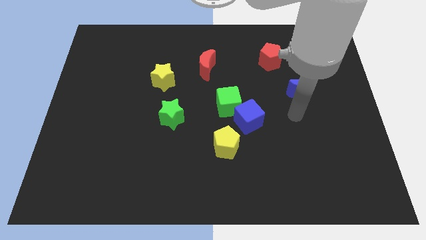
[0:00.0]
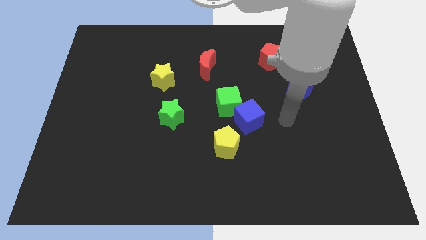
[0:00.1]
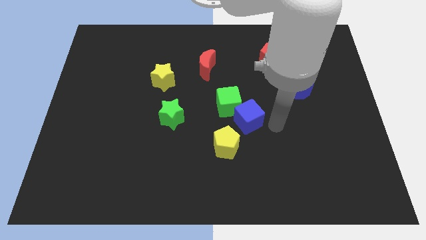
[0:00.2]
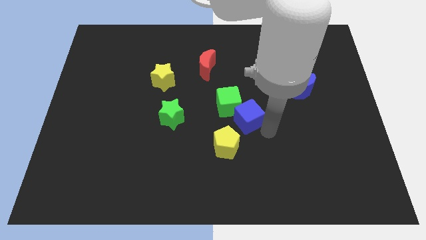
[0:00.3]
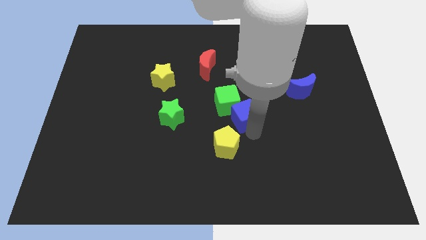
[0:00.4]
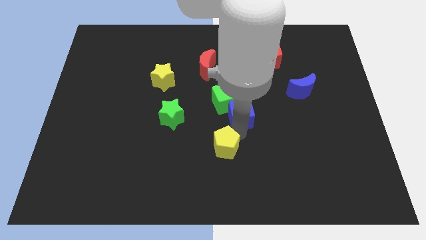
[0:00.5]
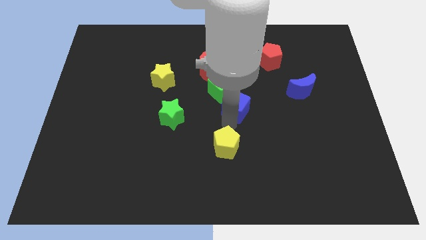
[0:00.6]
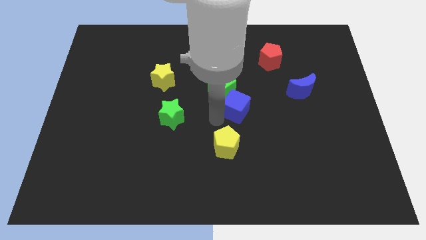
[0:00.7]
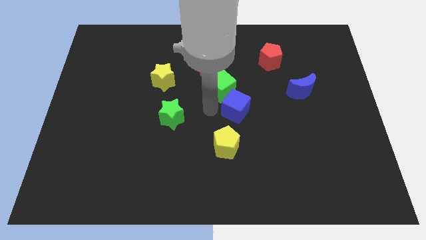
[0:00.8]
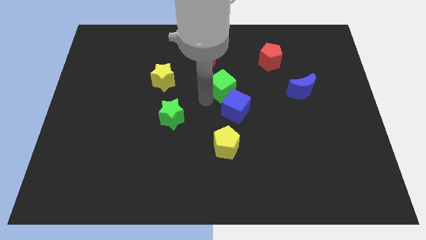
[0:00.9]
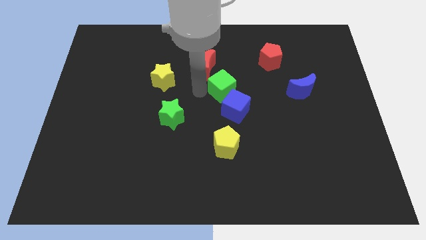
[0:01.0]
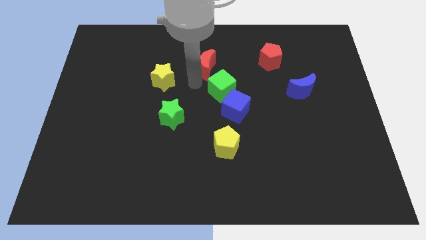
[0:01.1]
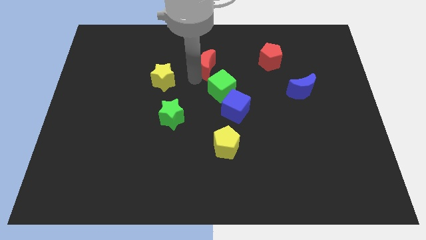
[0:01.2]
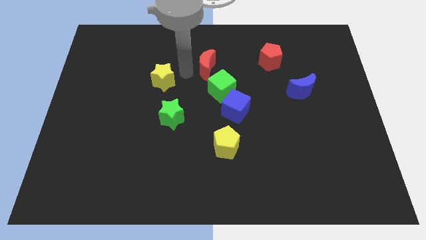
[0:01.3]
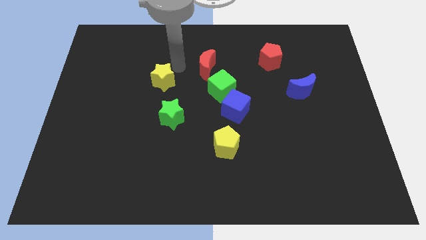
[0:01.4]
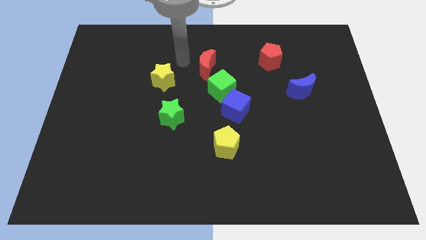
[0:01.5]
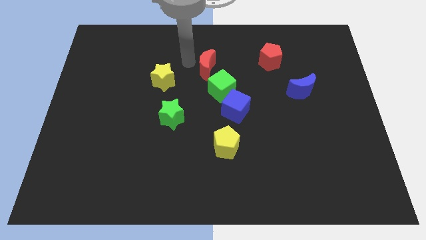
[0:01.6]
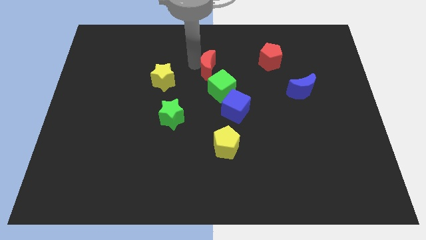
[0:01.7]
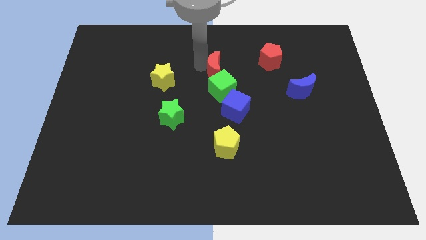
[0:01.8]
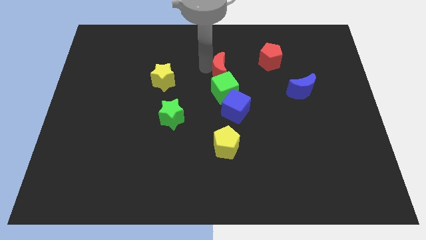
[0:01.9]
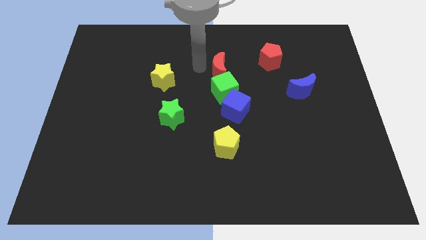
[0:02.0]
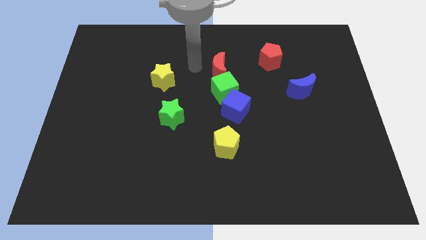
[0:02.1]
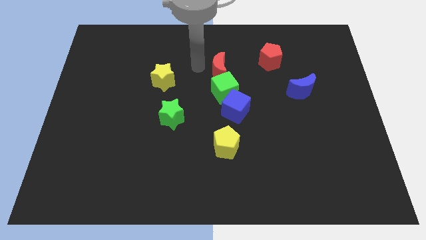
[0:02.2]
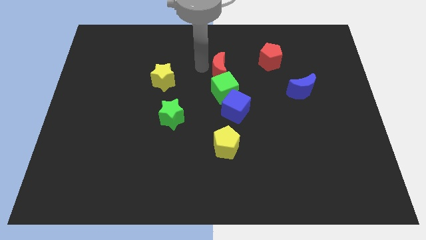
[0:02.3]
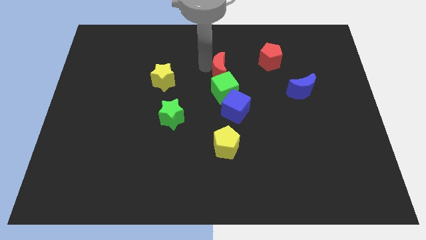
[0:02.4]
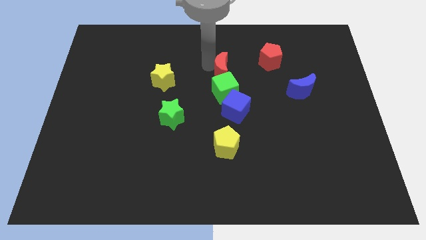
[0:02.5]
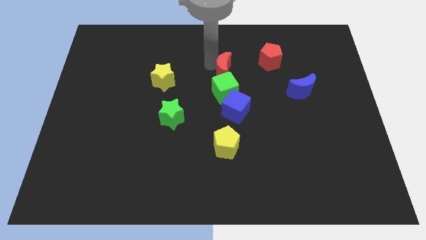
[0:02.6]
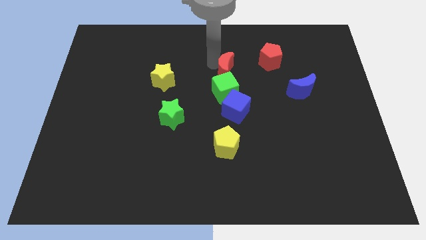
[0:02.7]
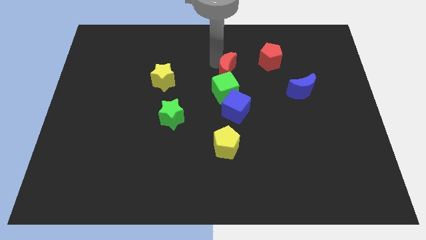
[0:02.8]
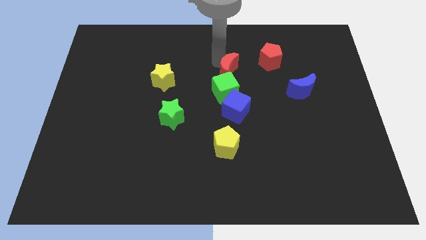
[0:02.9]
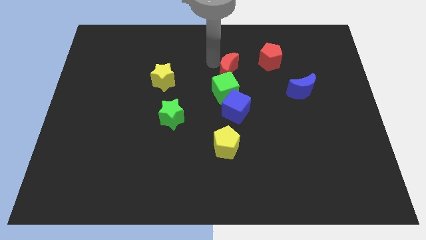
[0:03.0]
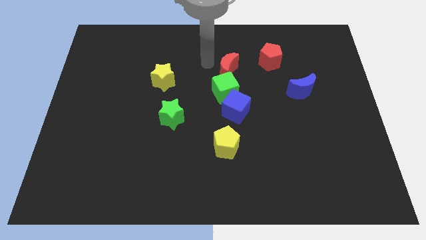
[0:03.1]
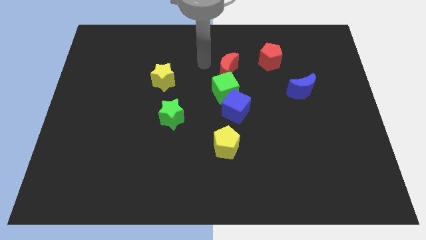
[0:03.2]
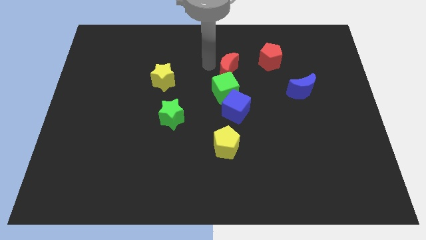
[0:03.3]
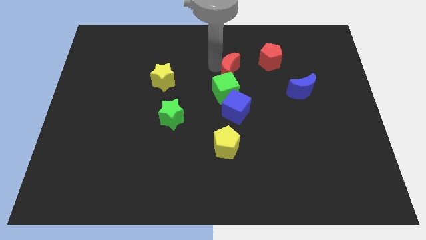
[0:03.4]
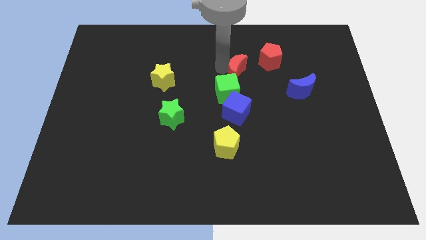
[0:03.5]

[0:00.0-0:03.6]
slightly slide the red moon to the right

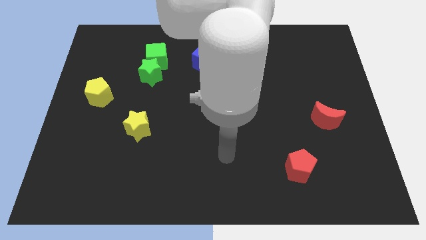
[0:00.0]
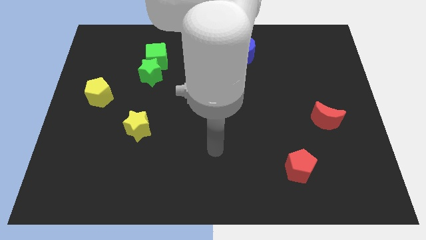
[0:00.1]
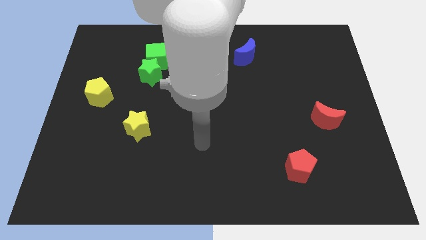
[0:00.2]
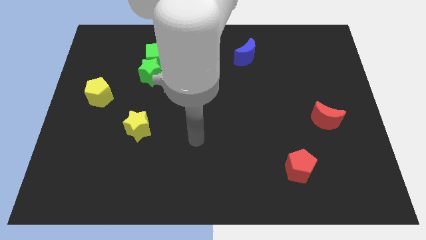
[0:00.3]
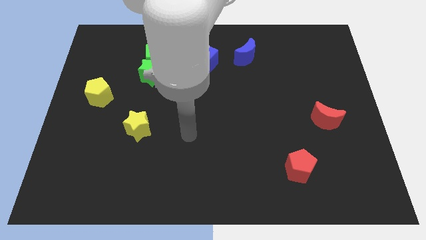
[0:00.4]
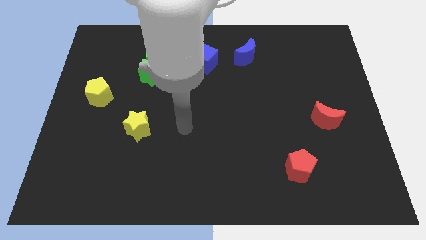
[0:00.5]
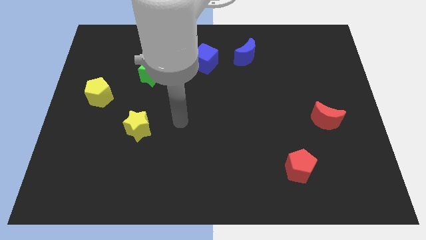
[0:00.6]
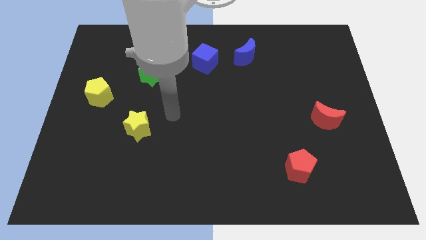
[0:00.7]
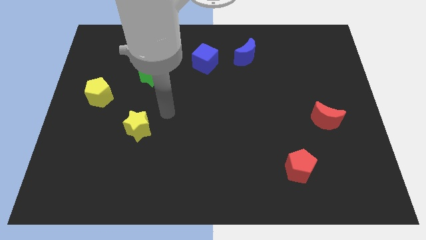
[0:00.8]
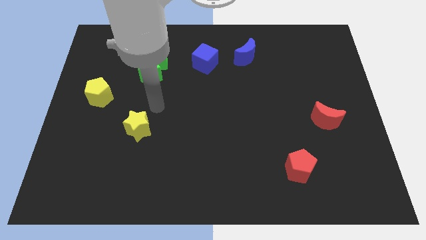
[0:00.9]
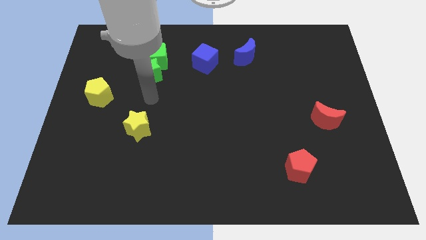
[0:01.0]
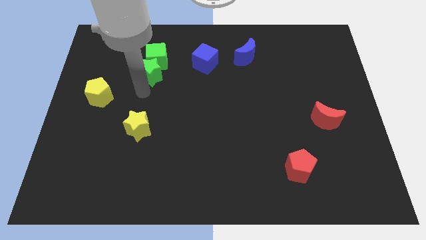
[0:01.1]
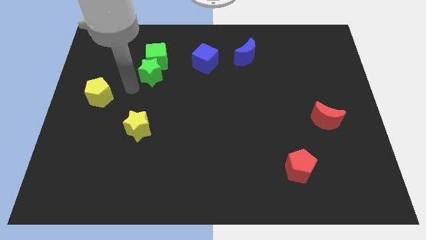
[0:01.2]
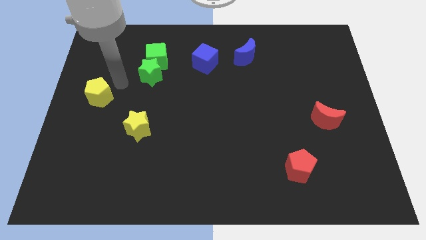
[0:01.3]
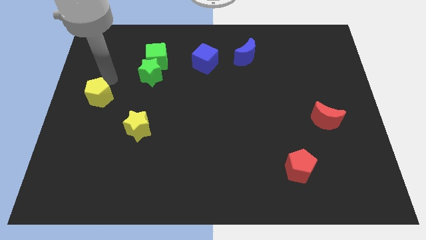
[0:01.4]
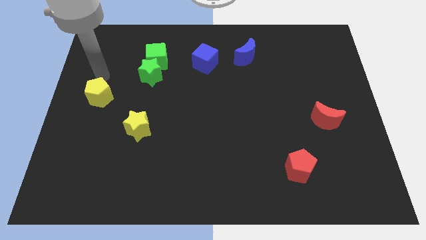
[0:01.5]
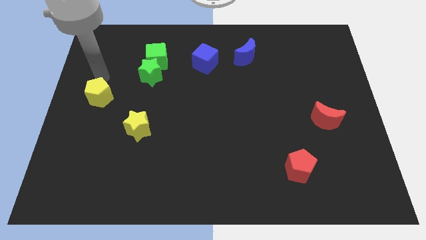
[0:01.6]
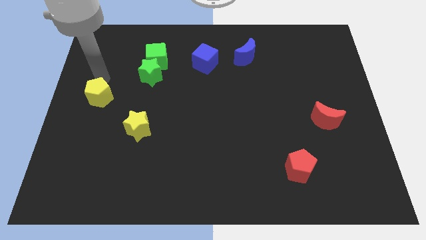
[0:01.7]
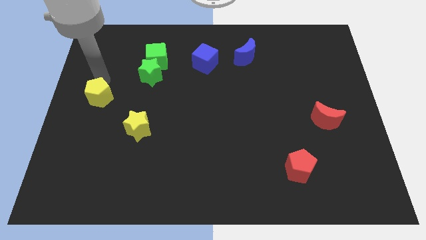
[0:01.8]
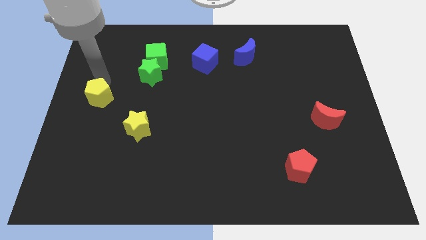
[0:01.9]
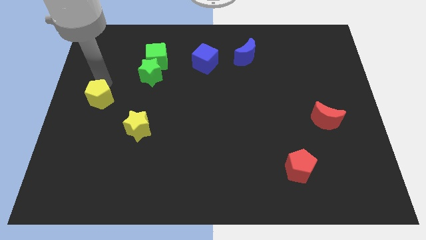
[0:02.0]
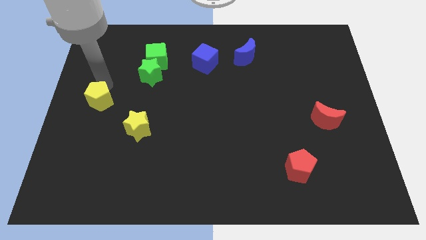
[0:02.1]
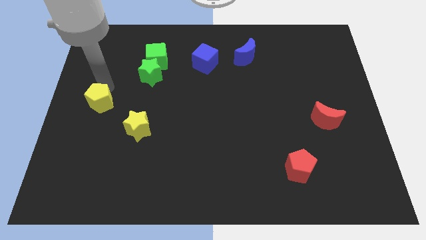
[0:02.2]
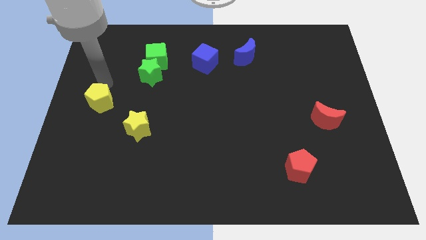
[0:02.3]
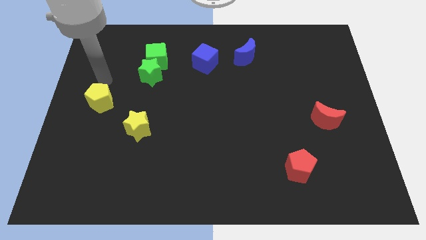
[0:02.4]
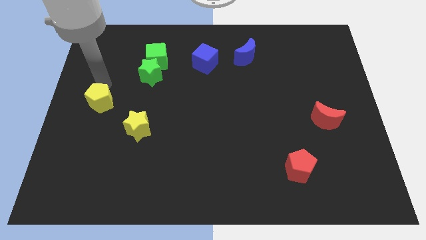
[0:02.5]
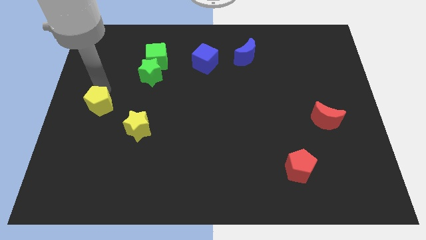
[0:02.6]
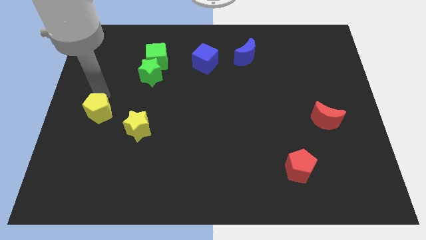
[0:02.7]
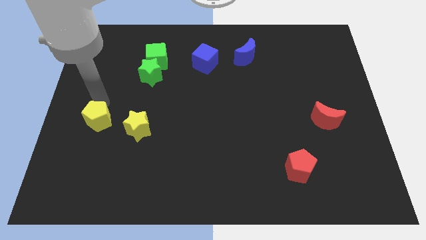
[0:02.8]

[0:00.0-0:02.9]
slightly move the yellow pentagon down

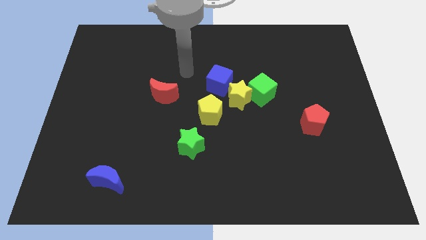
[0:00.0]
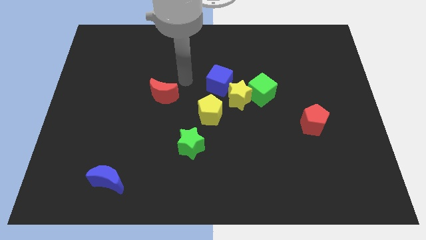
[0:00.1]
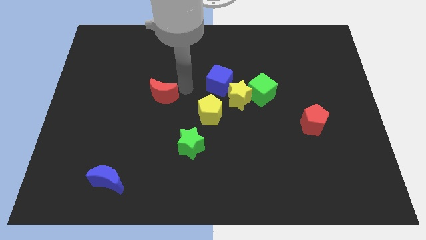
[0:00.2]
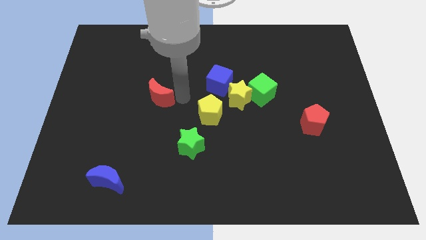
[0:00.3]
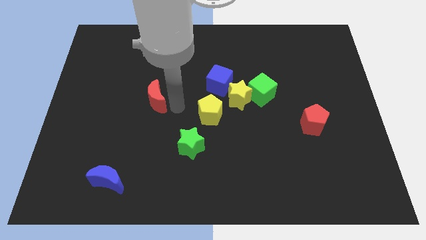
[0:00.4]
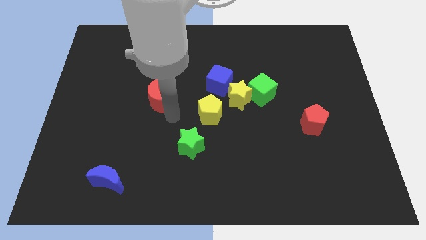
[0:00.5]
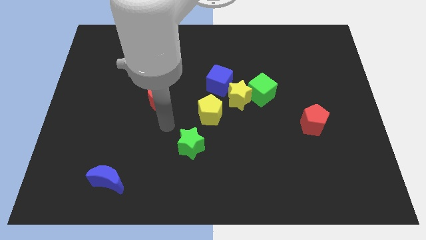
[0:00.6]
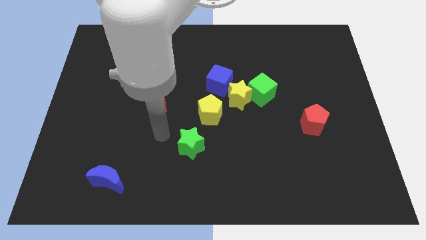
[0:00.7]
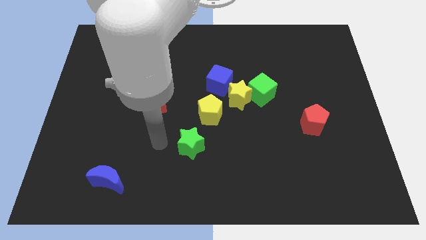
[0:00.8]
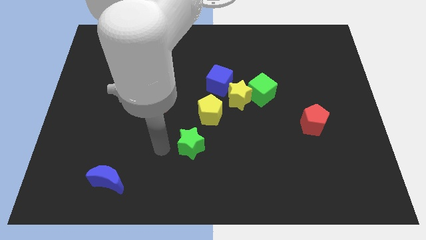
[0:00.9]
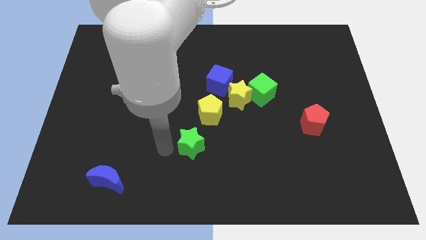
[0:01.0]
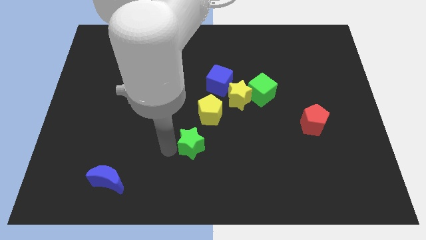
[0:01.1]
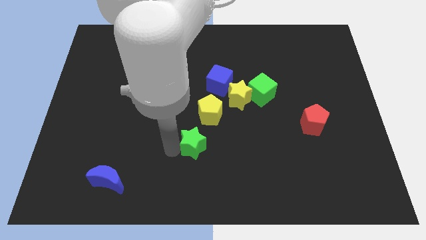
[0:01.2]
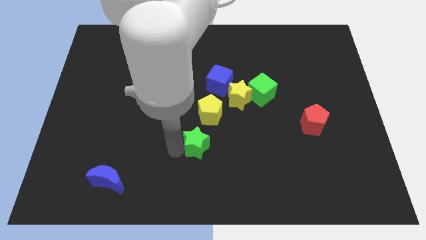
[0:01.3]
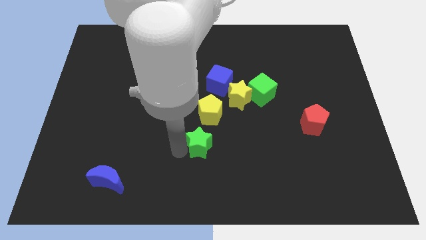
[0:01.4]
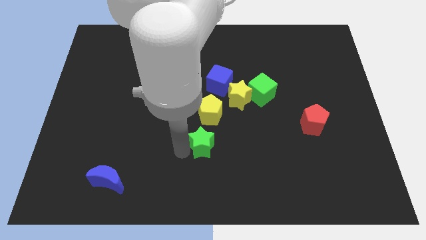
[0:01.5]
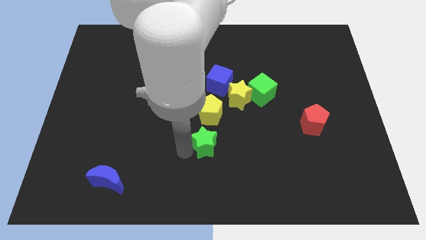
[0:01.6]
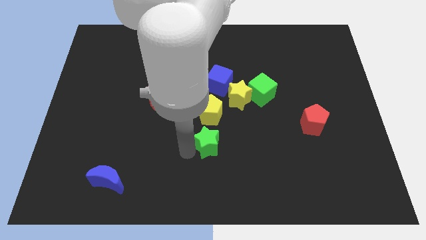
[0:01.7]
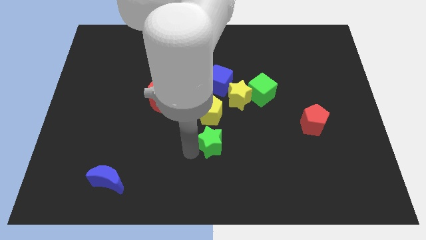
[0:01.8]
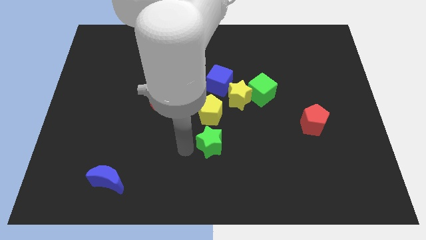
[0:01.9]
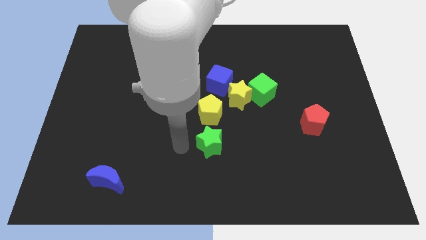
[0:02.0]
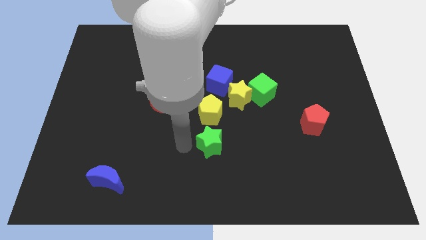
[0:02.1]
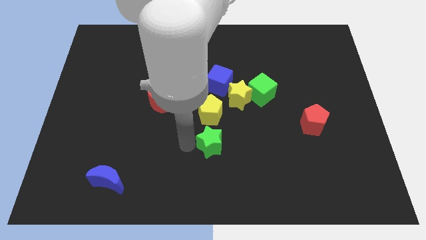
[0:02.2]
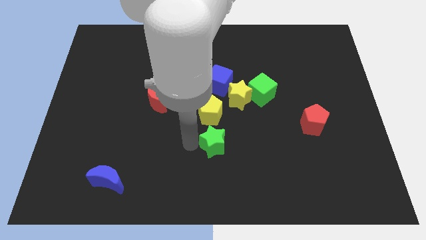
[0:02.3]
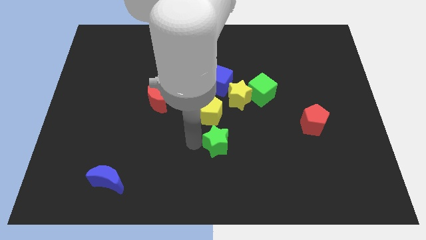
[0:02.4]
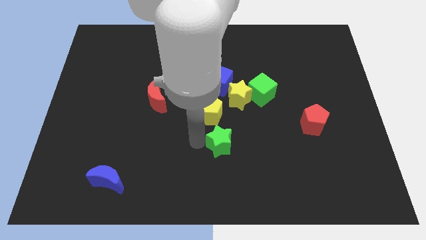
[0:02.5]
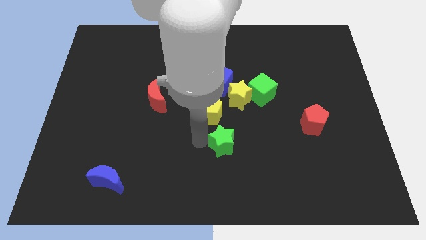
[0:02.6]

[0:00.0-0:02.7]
slightly move the green star to the right
